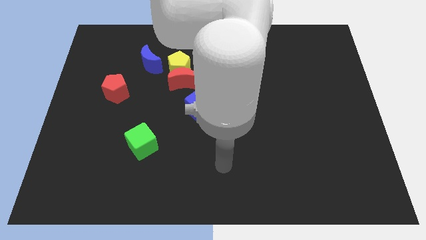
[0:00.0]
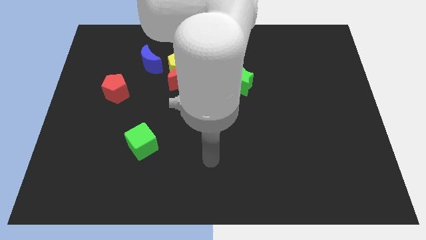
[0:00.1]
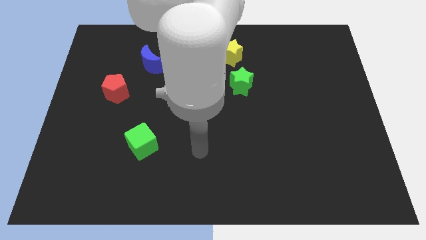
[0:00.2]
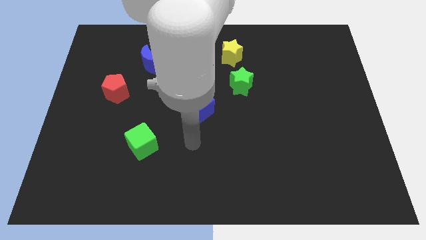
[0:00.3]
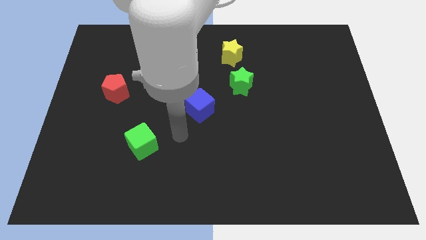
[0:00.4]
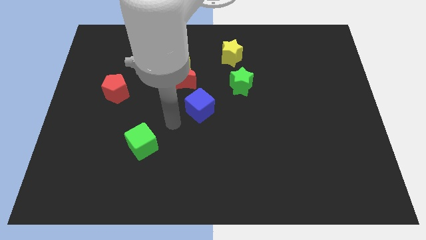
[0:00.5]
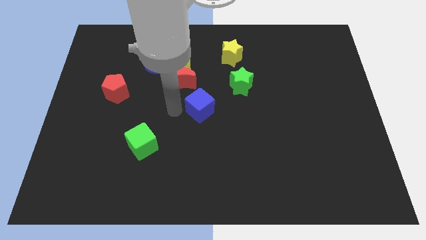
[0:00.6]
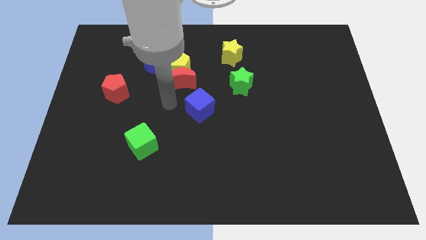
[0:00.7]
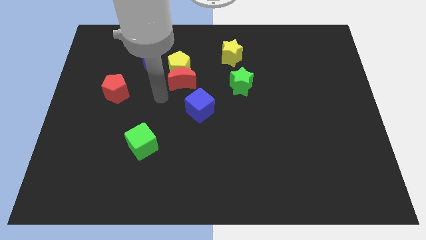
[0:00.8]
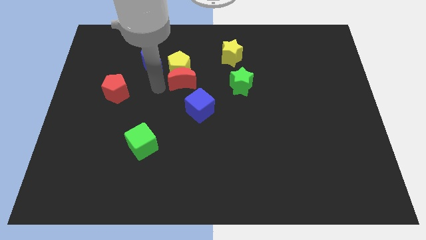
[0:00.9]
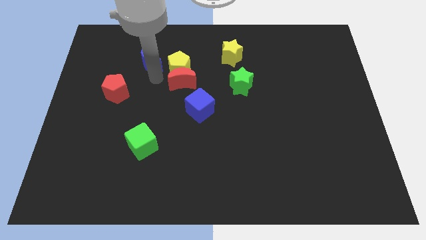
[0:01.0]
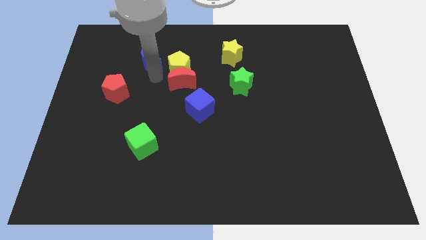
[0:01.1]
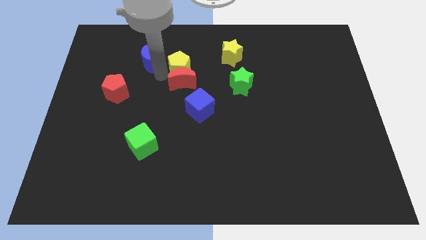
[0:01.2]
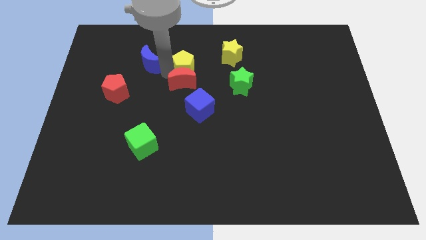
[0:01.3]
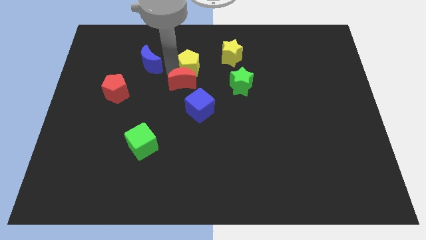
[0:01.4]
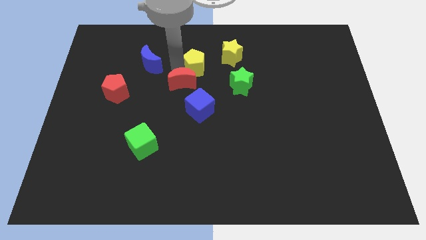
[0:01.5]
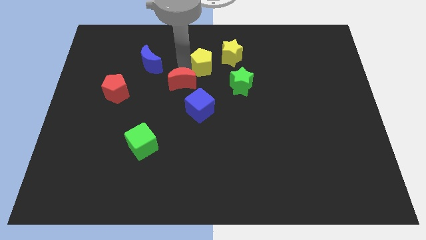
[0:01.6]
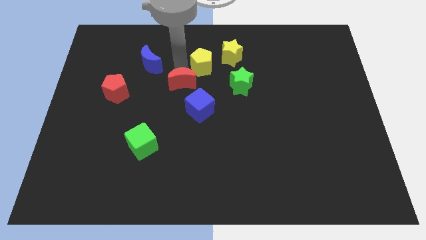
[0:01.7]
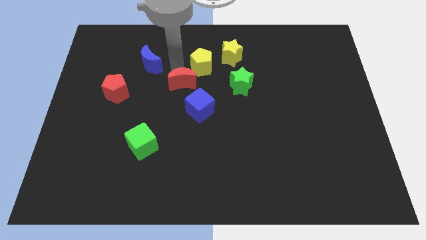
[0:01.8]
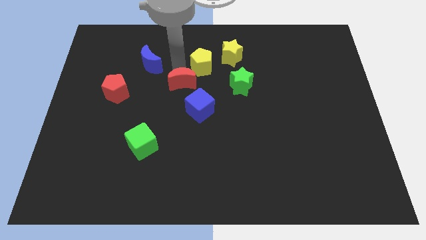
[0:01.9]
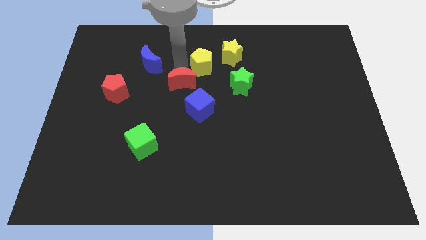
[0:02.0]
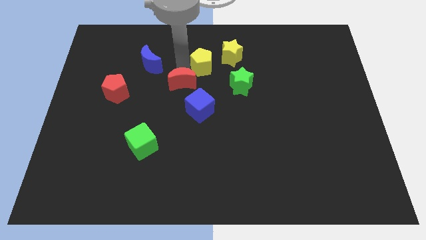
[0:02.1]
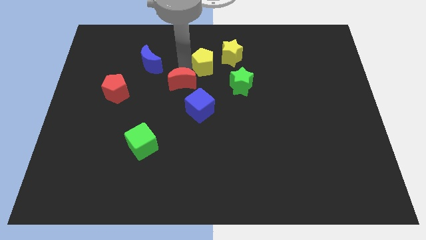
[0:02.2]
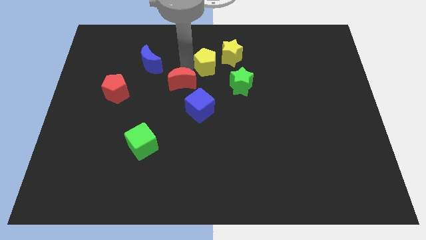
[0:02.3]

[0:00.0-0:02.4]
move the yellow pentagon away from the red moon and blue moon

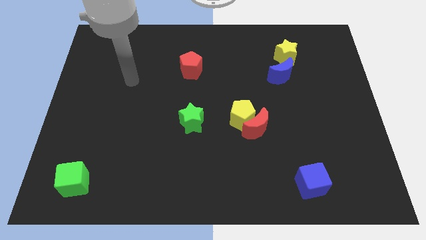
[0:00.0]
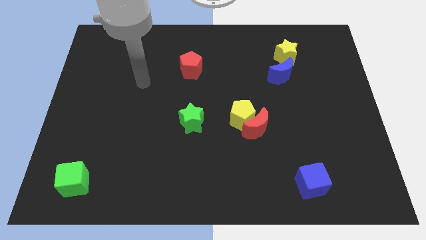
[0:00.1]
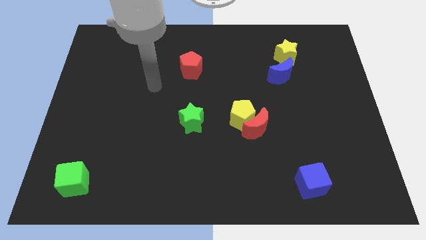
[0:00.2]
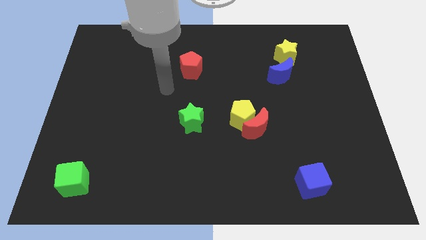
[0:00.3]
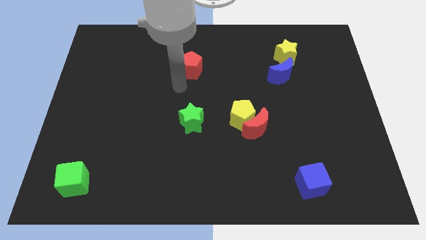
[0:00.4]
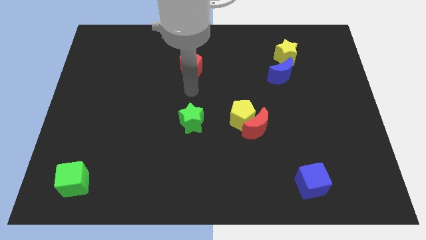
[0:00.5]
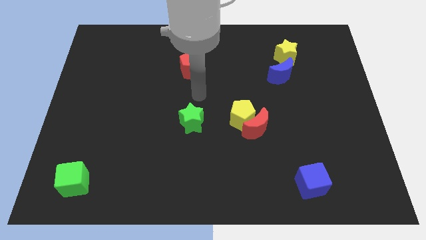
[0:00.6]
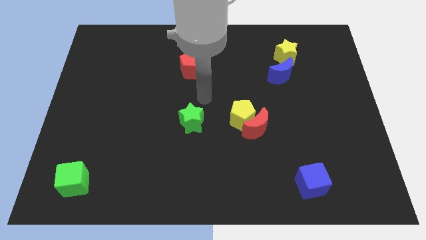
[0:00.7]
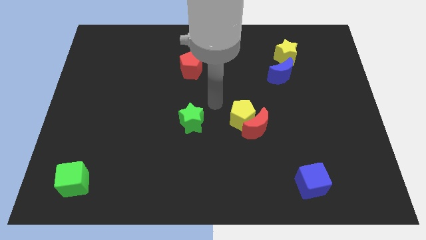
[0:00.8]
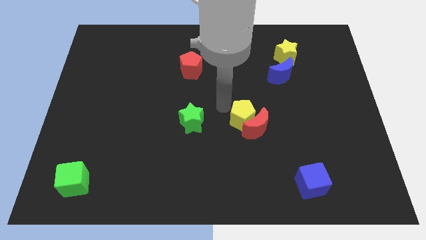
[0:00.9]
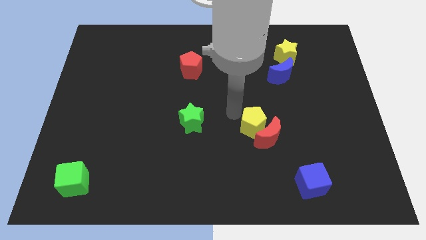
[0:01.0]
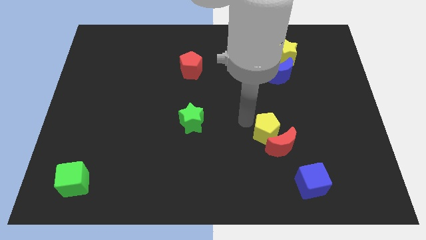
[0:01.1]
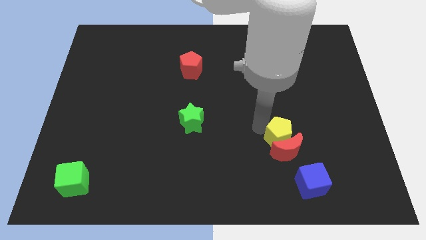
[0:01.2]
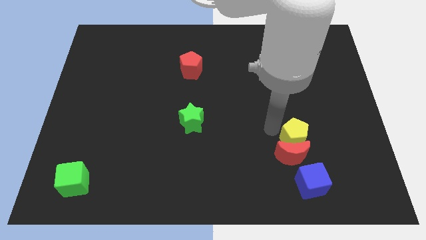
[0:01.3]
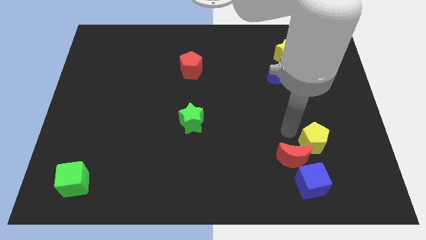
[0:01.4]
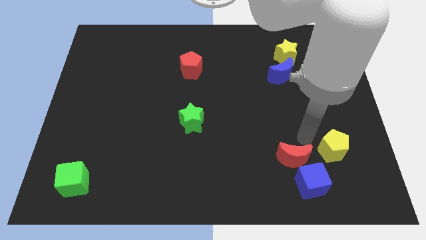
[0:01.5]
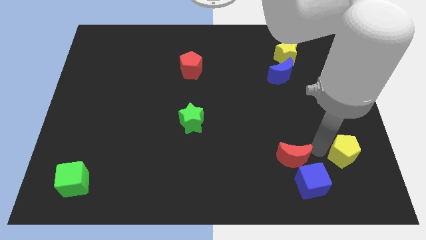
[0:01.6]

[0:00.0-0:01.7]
separate the red moon from the yellow pentagon

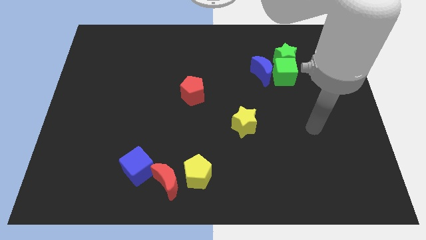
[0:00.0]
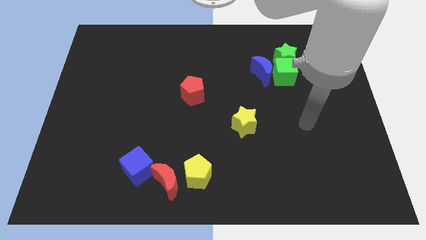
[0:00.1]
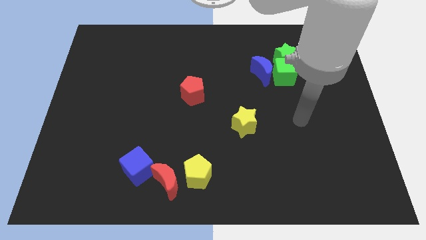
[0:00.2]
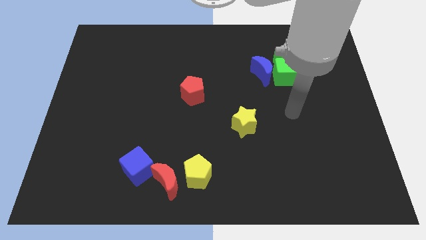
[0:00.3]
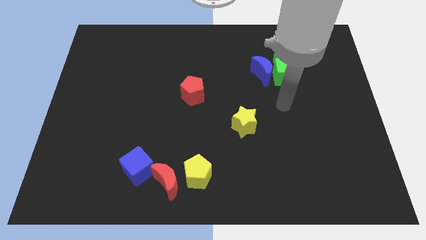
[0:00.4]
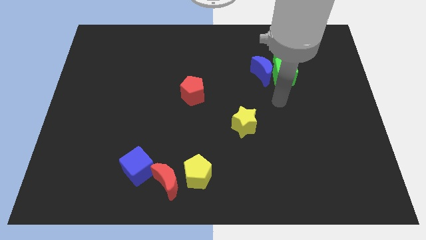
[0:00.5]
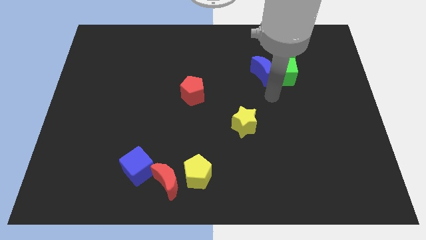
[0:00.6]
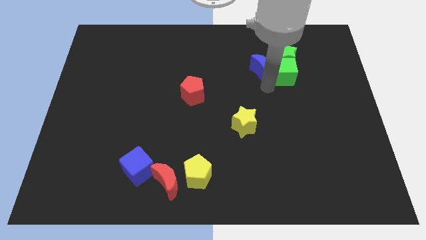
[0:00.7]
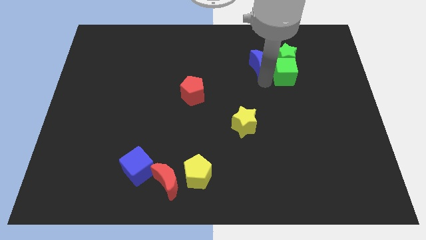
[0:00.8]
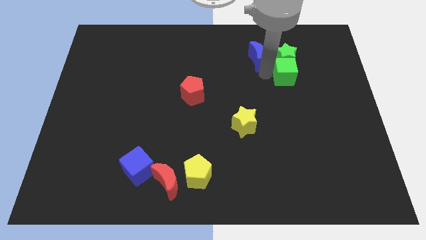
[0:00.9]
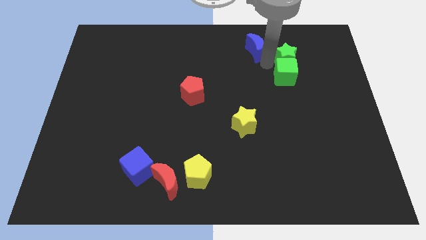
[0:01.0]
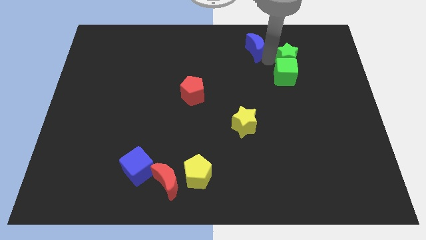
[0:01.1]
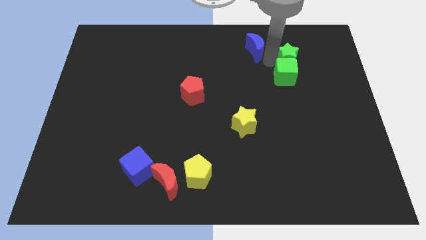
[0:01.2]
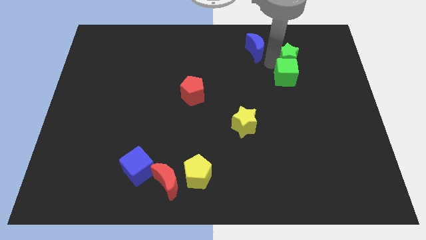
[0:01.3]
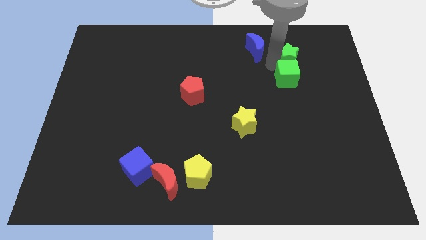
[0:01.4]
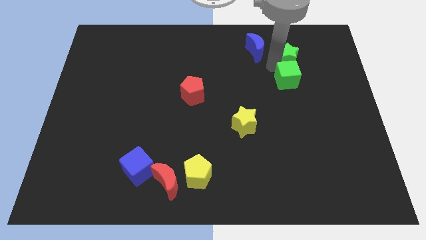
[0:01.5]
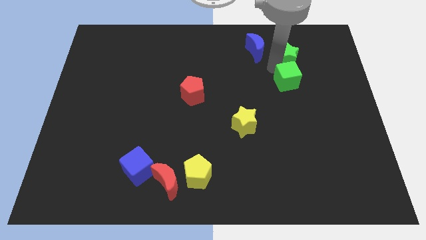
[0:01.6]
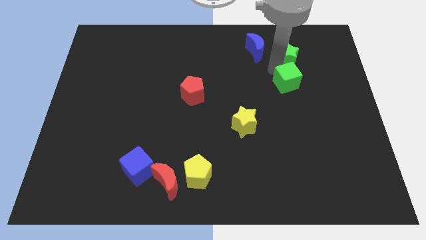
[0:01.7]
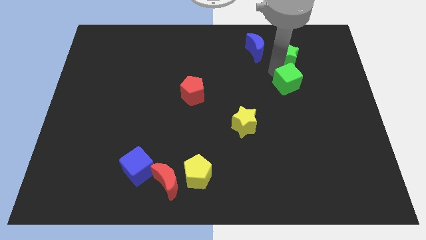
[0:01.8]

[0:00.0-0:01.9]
separate the green cube from the green star and blue moon

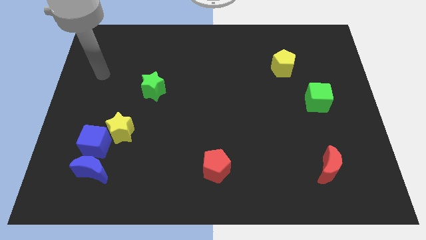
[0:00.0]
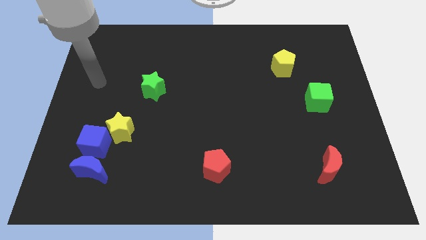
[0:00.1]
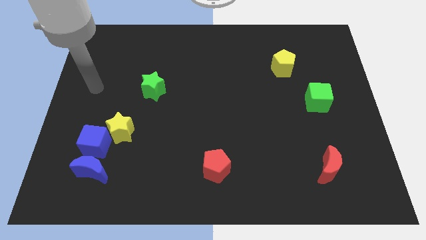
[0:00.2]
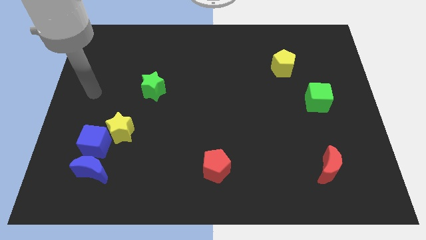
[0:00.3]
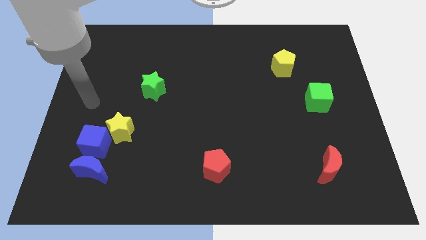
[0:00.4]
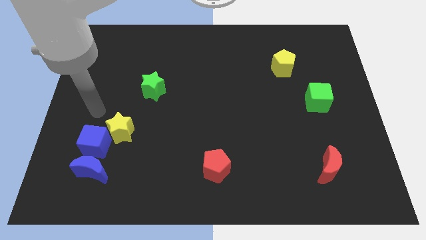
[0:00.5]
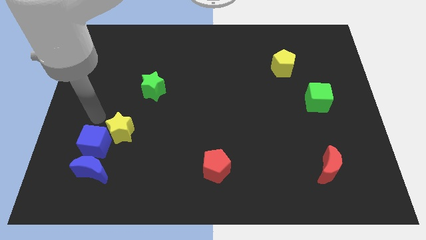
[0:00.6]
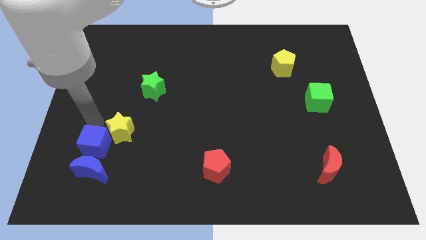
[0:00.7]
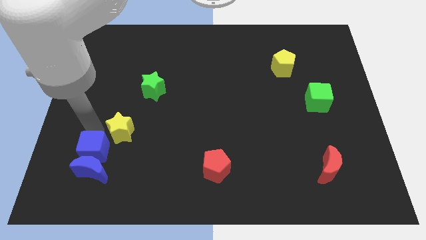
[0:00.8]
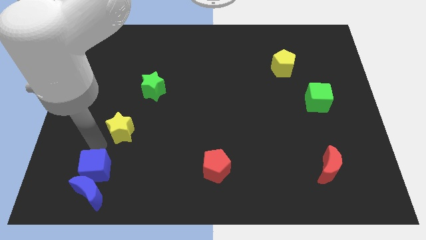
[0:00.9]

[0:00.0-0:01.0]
separate the yellow star from the blue cube

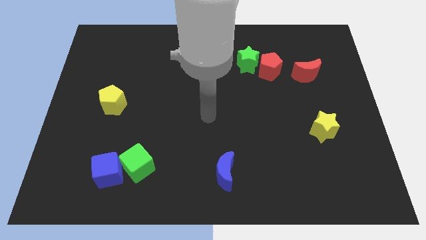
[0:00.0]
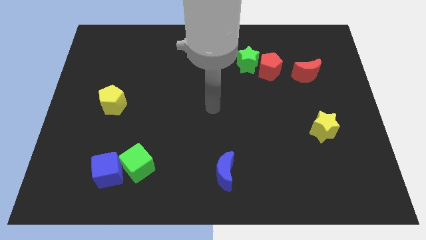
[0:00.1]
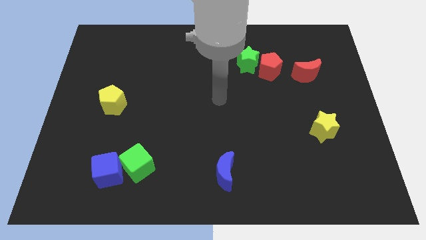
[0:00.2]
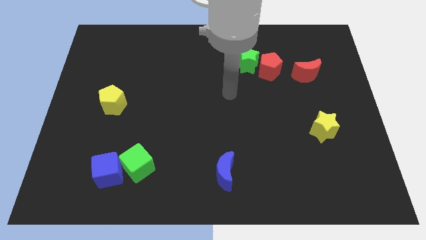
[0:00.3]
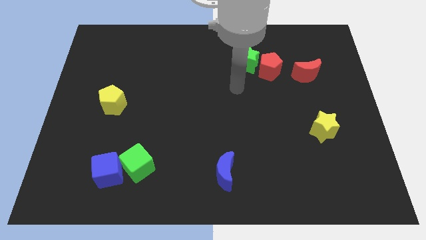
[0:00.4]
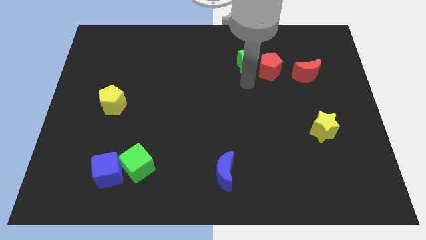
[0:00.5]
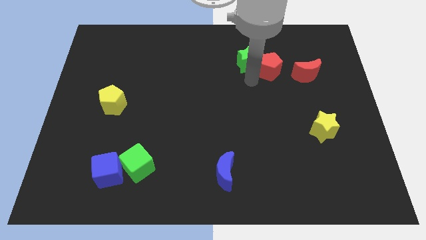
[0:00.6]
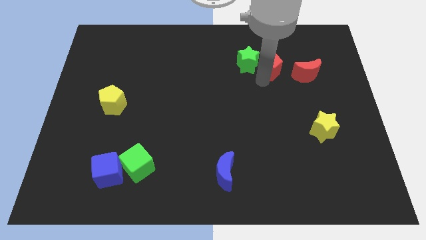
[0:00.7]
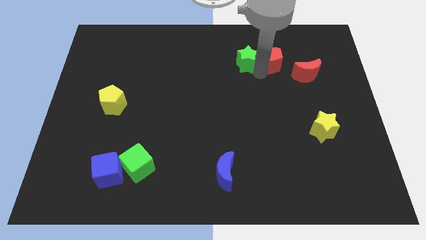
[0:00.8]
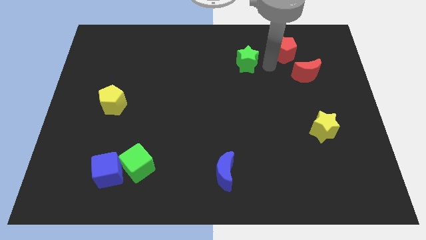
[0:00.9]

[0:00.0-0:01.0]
move the green star away from the red pentagon

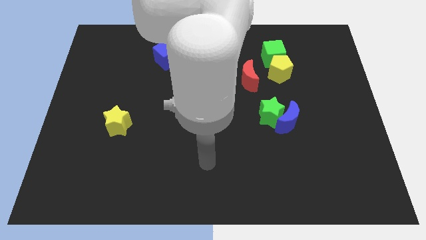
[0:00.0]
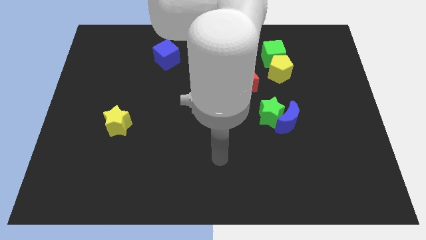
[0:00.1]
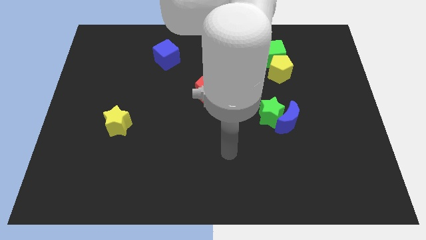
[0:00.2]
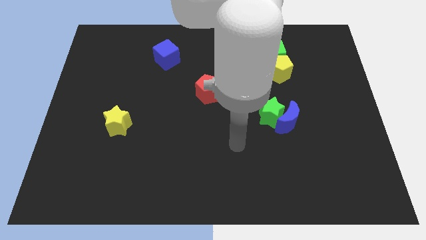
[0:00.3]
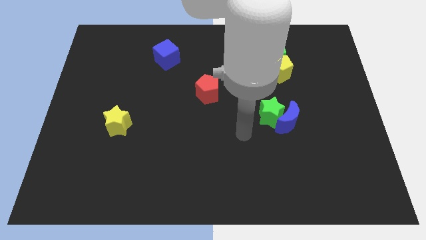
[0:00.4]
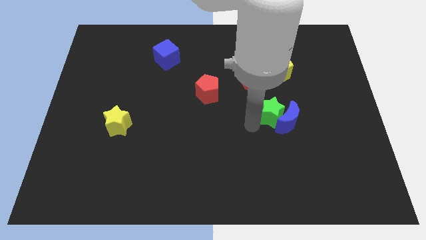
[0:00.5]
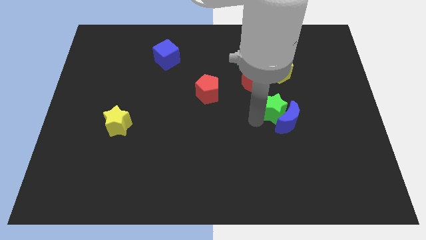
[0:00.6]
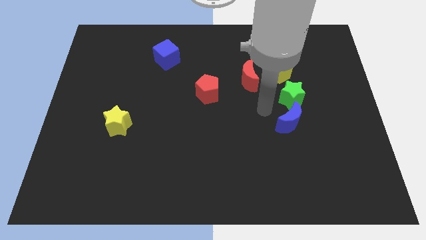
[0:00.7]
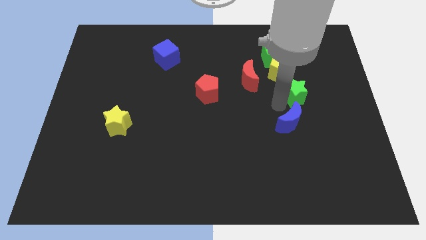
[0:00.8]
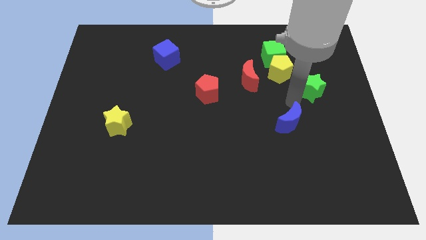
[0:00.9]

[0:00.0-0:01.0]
move the blue moon away from the green star
